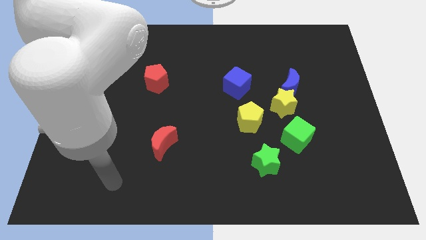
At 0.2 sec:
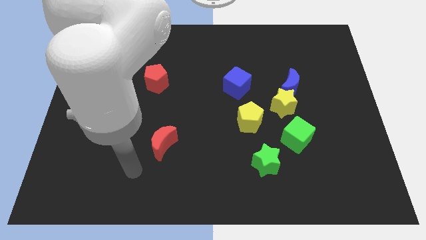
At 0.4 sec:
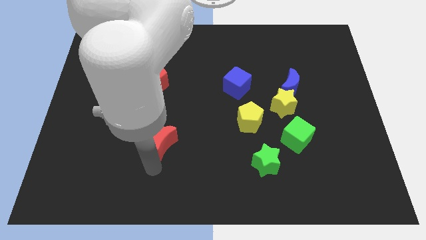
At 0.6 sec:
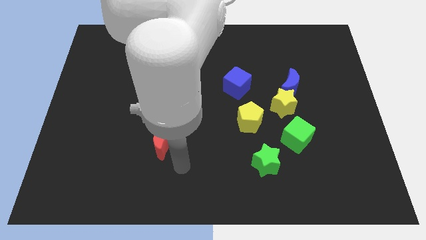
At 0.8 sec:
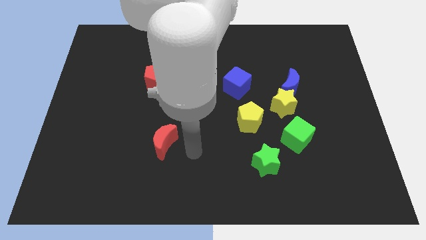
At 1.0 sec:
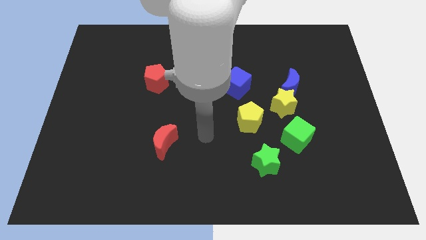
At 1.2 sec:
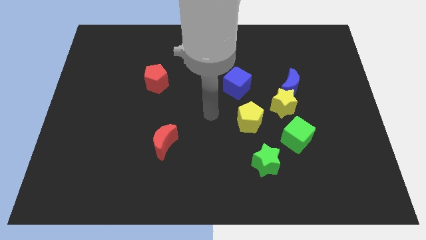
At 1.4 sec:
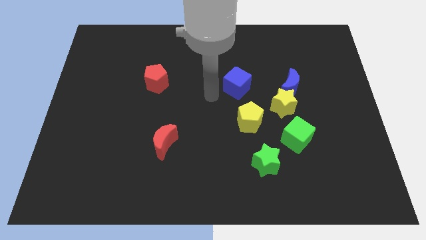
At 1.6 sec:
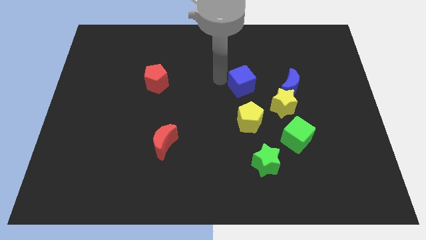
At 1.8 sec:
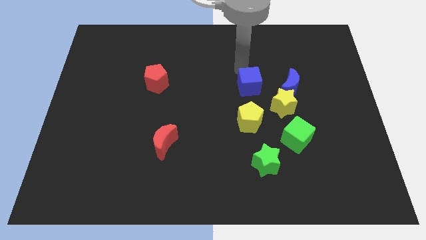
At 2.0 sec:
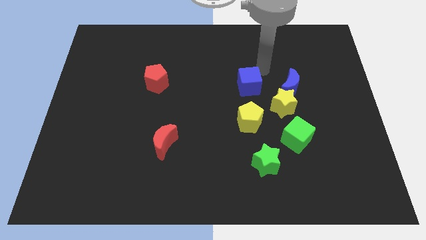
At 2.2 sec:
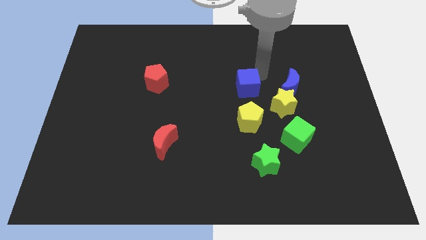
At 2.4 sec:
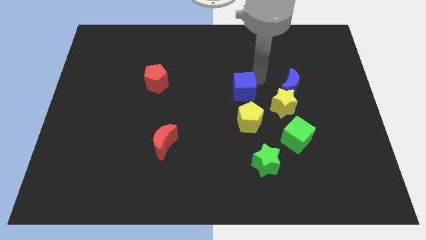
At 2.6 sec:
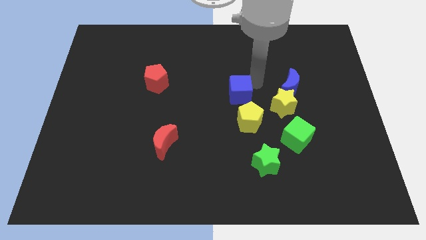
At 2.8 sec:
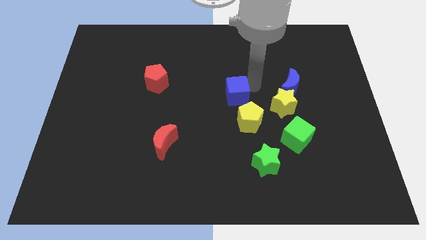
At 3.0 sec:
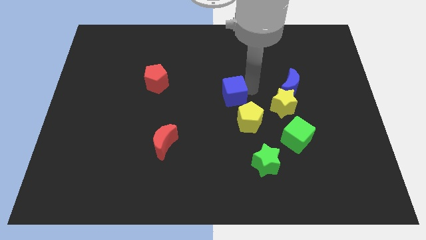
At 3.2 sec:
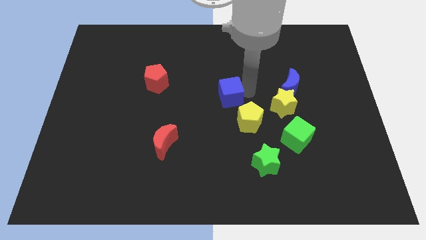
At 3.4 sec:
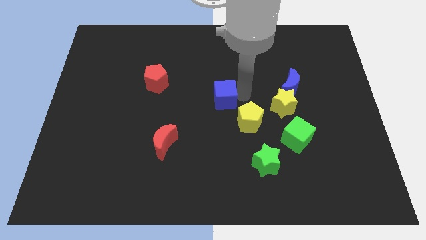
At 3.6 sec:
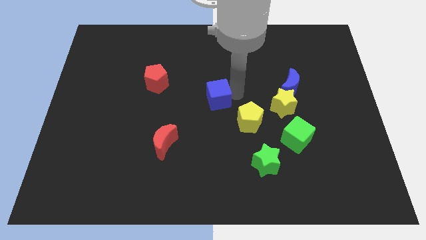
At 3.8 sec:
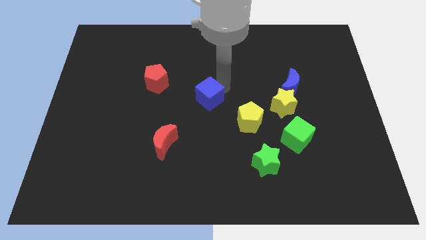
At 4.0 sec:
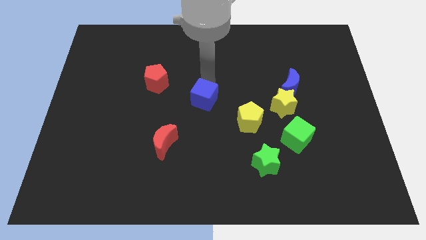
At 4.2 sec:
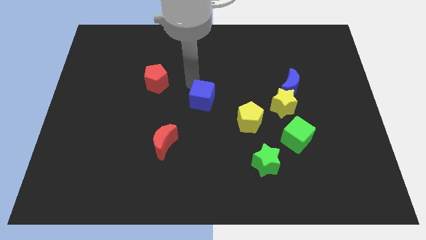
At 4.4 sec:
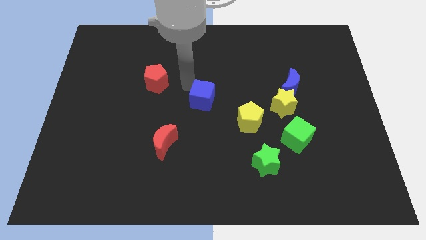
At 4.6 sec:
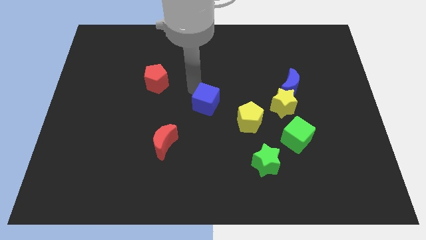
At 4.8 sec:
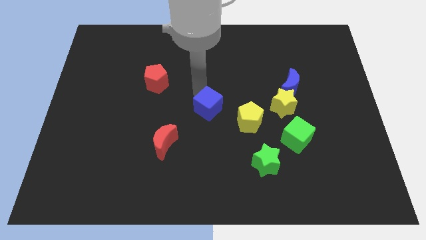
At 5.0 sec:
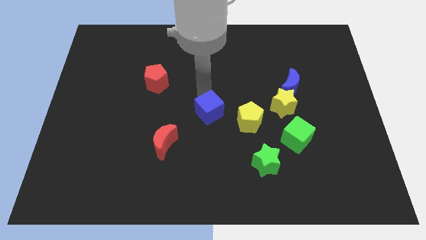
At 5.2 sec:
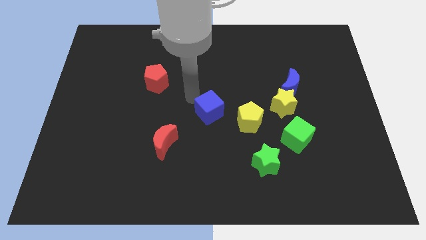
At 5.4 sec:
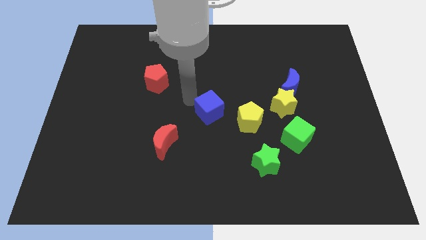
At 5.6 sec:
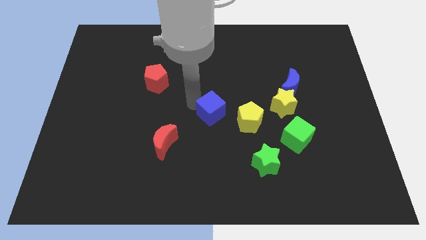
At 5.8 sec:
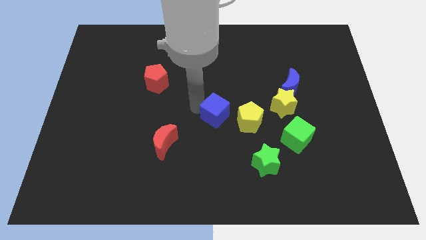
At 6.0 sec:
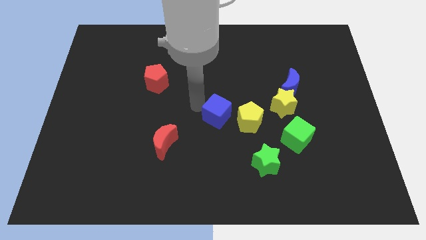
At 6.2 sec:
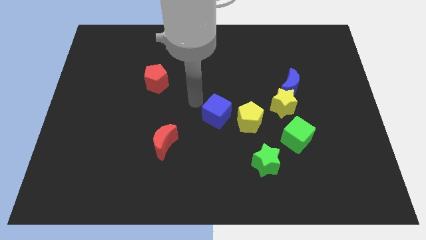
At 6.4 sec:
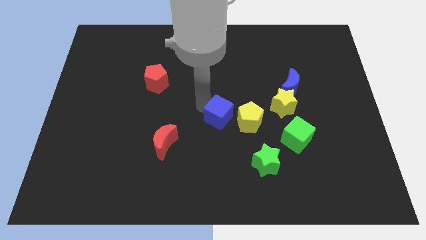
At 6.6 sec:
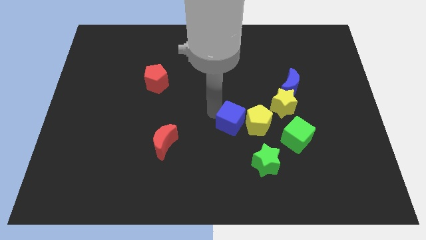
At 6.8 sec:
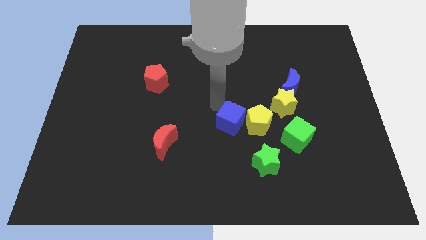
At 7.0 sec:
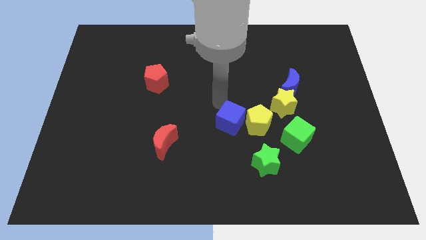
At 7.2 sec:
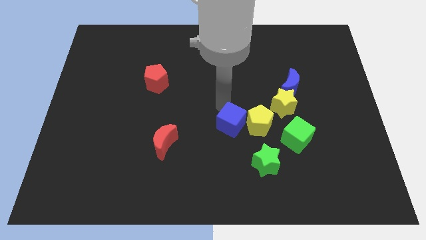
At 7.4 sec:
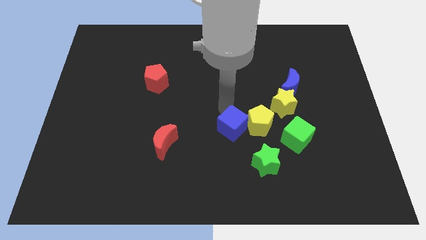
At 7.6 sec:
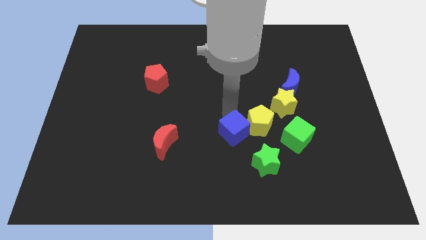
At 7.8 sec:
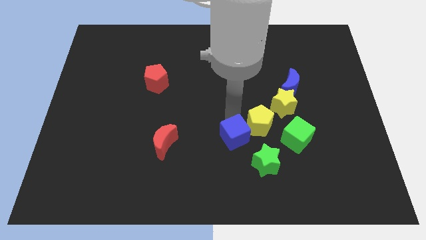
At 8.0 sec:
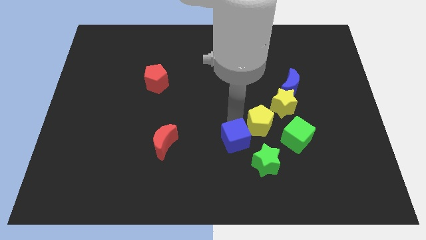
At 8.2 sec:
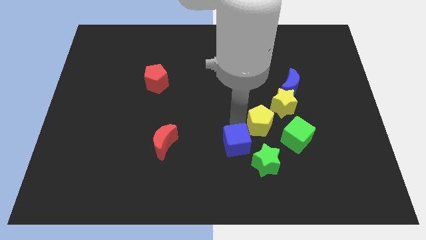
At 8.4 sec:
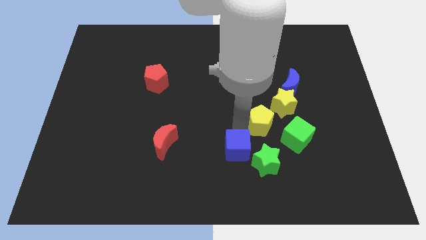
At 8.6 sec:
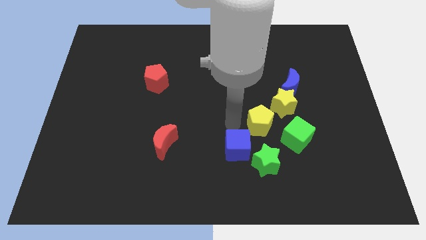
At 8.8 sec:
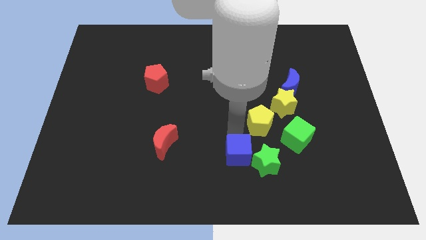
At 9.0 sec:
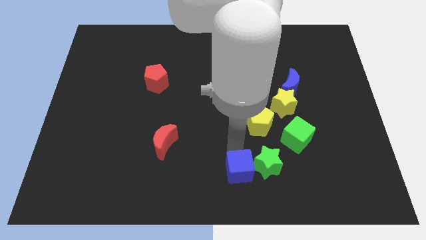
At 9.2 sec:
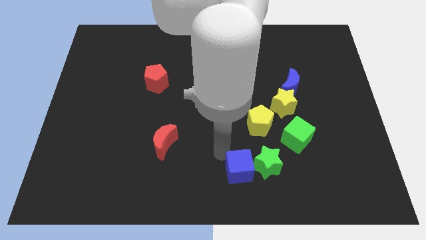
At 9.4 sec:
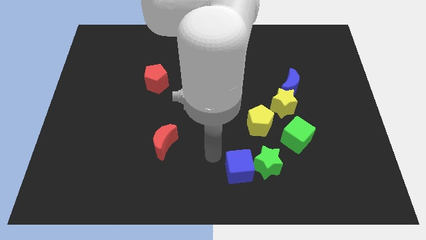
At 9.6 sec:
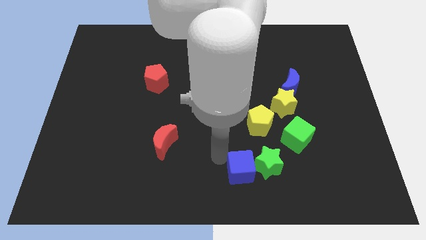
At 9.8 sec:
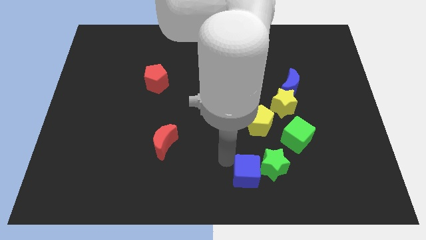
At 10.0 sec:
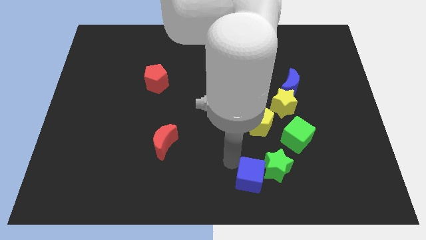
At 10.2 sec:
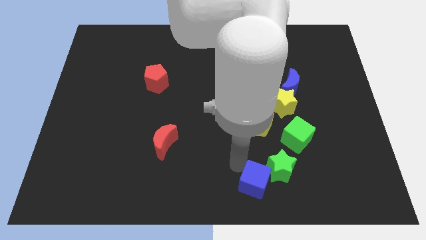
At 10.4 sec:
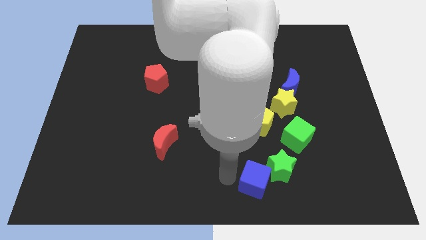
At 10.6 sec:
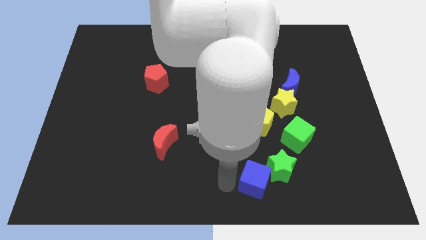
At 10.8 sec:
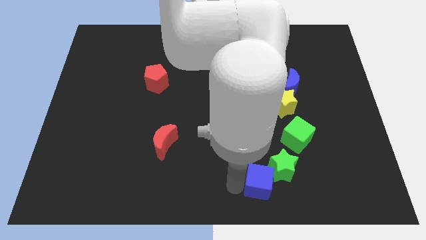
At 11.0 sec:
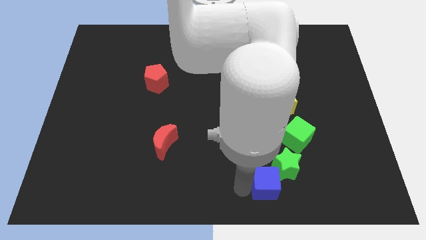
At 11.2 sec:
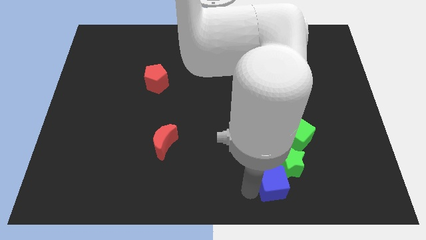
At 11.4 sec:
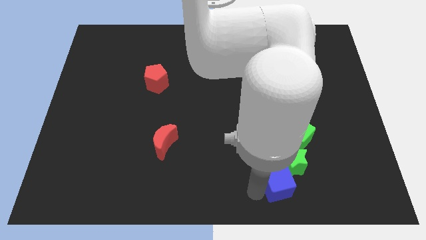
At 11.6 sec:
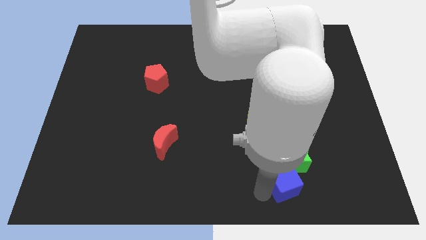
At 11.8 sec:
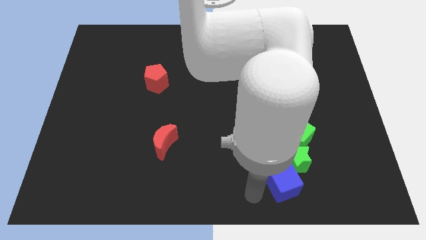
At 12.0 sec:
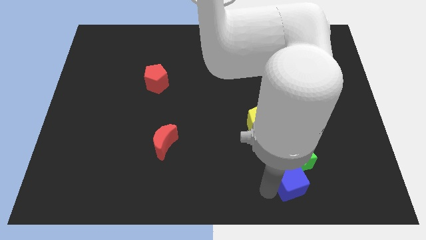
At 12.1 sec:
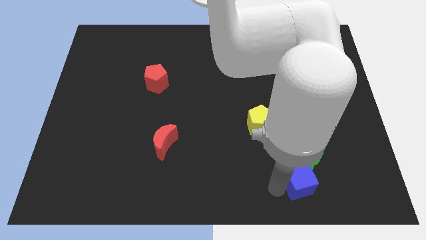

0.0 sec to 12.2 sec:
push the blue cube diagonally down and to the right

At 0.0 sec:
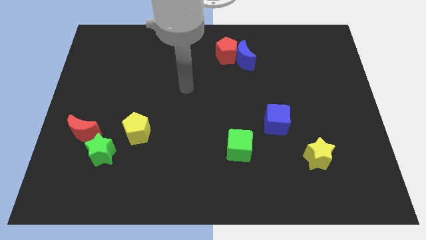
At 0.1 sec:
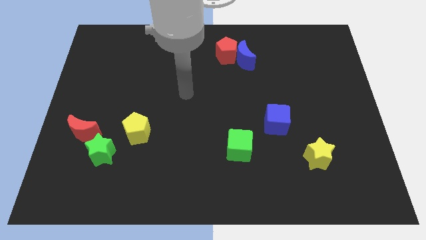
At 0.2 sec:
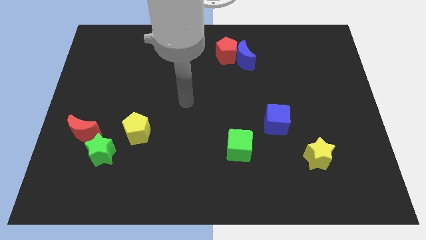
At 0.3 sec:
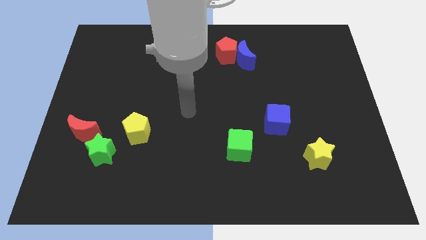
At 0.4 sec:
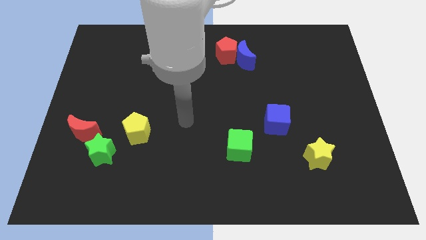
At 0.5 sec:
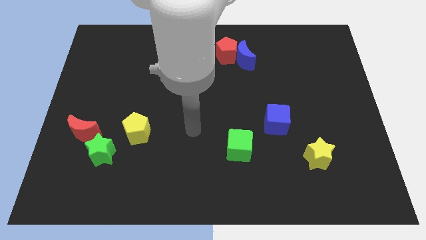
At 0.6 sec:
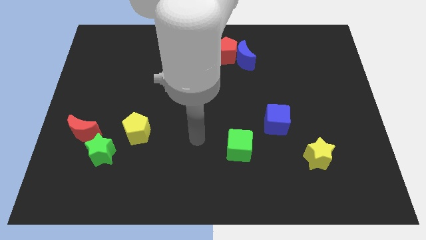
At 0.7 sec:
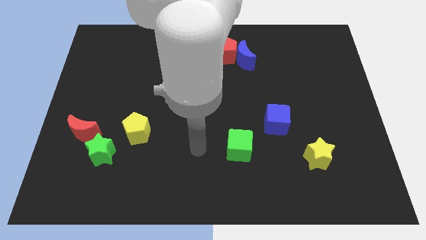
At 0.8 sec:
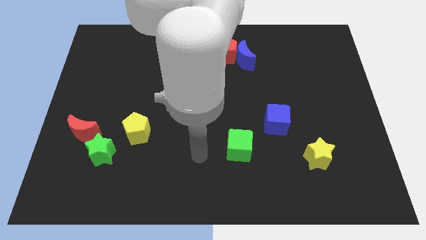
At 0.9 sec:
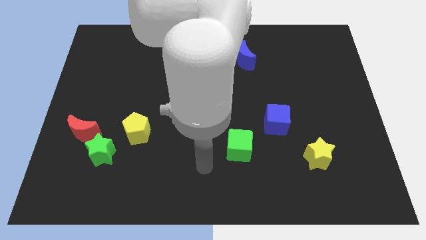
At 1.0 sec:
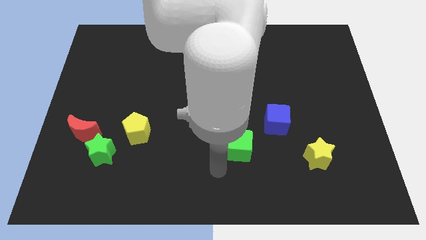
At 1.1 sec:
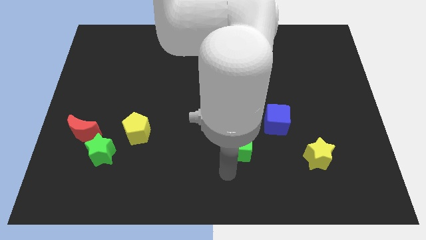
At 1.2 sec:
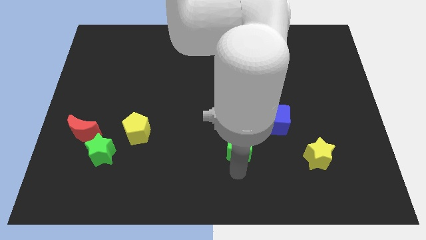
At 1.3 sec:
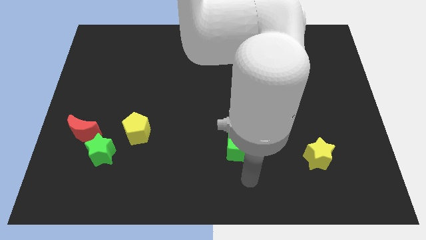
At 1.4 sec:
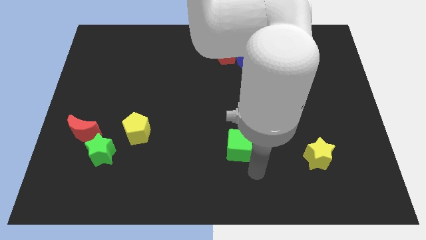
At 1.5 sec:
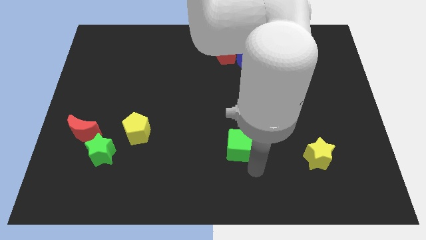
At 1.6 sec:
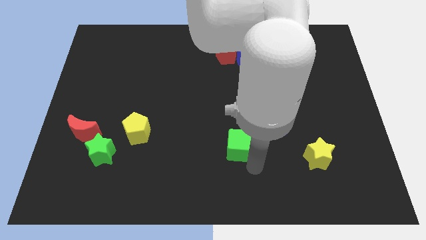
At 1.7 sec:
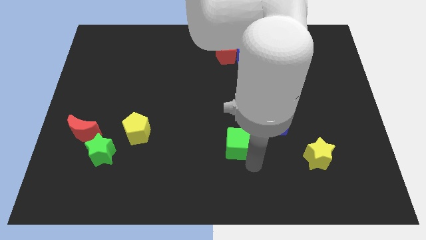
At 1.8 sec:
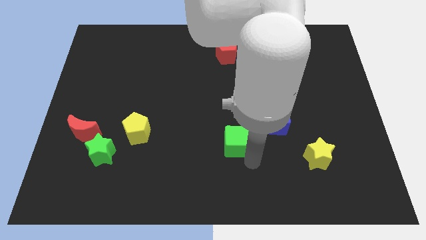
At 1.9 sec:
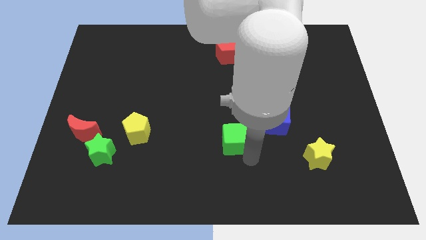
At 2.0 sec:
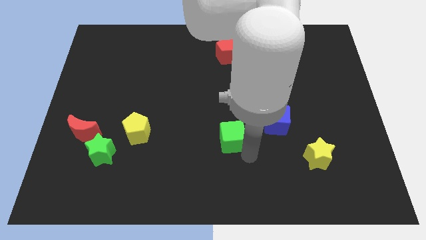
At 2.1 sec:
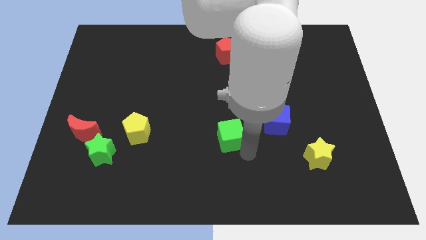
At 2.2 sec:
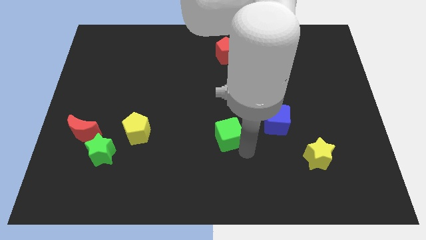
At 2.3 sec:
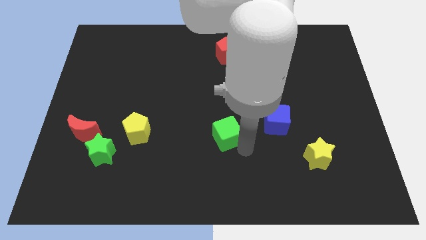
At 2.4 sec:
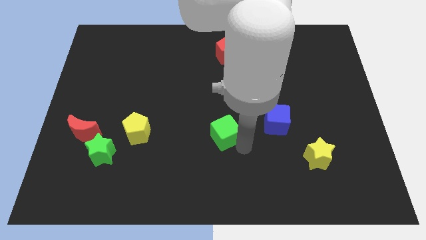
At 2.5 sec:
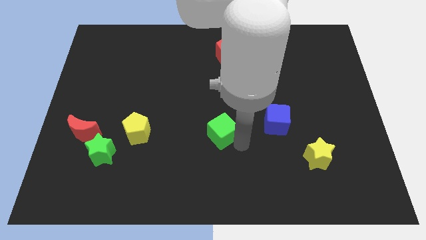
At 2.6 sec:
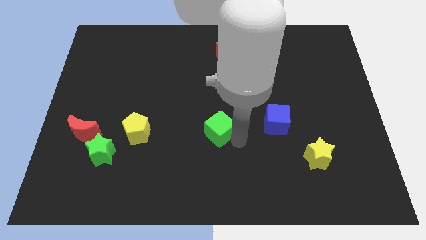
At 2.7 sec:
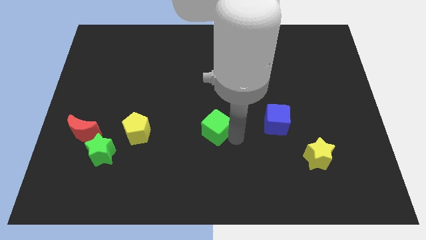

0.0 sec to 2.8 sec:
slide the green cube a little bit diagonally upwards and to the left
